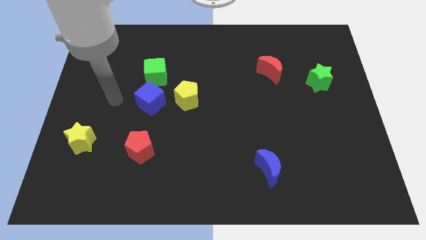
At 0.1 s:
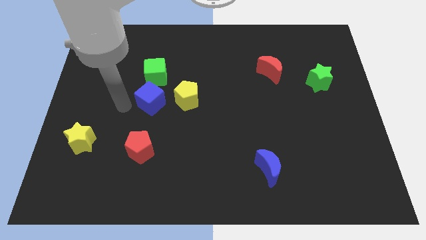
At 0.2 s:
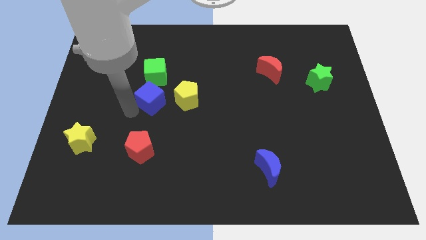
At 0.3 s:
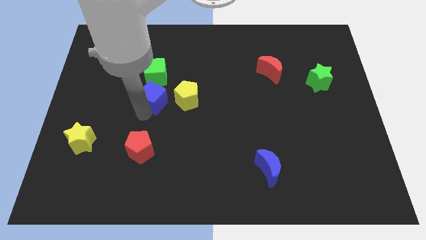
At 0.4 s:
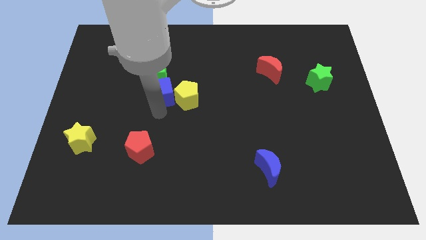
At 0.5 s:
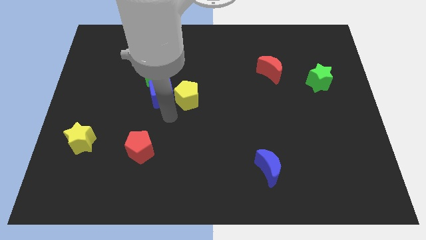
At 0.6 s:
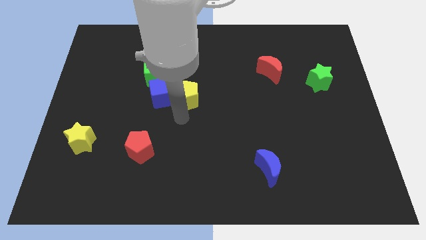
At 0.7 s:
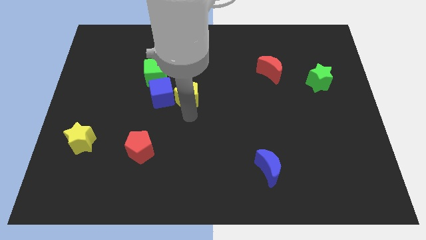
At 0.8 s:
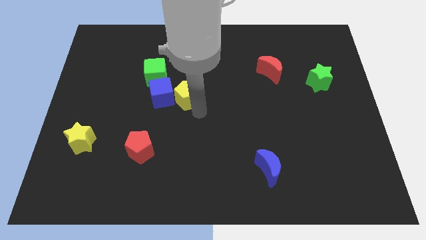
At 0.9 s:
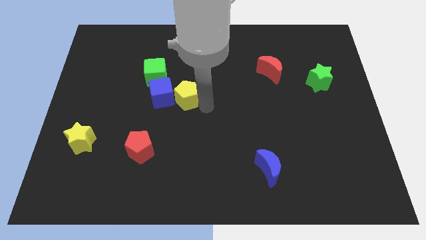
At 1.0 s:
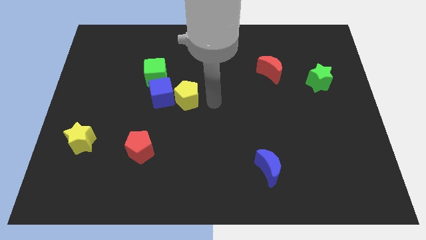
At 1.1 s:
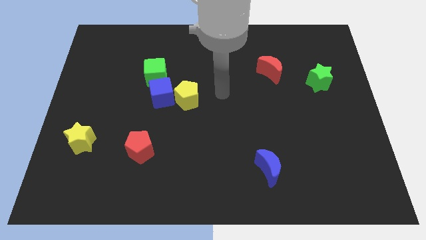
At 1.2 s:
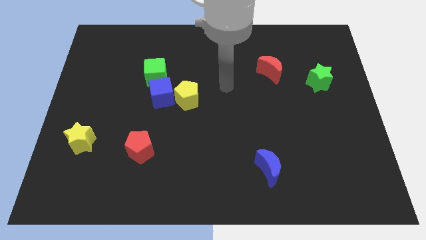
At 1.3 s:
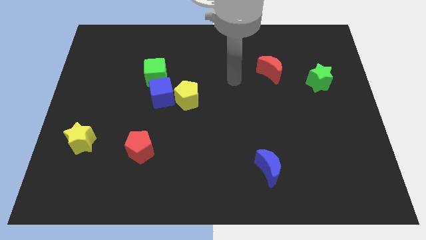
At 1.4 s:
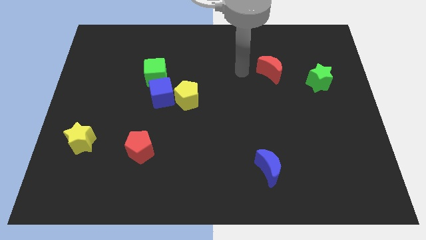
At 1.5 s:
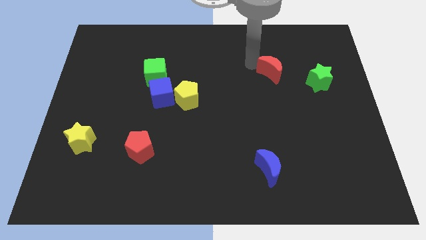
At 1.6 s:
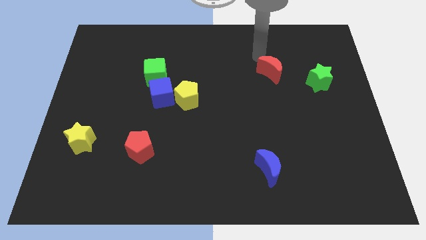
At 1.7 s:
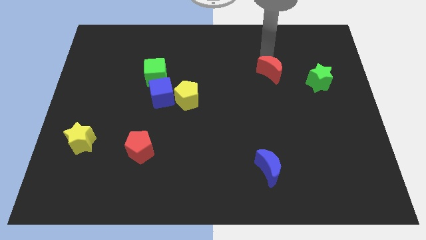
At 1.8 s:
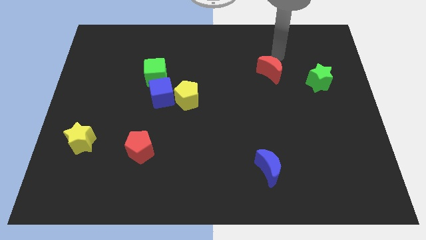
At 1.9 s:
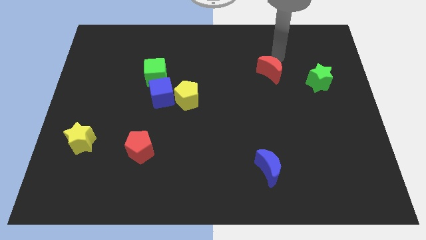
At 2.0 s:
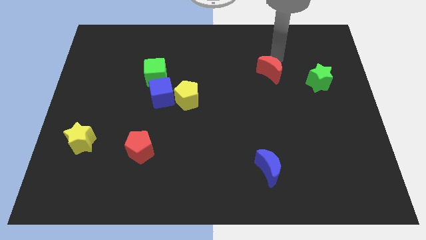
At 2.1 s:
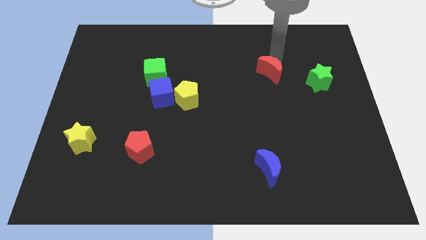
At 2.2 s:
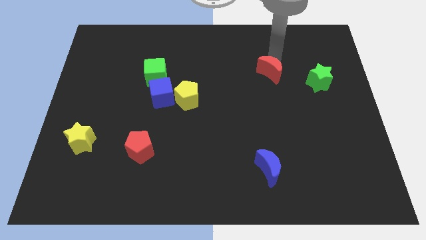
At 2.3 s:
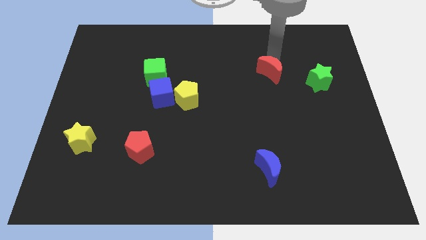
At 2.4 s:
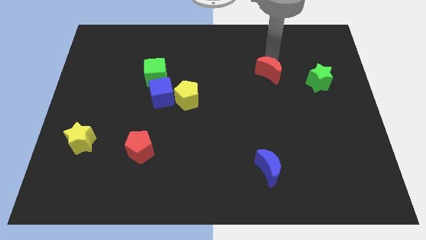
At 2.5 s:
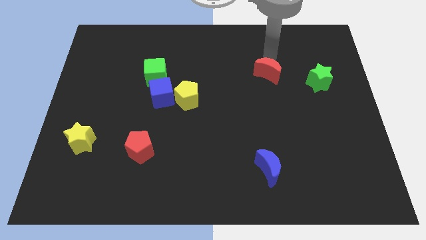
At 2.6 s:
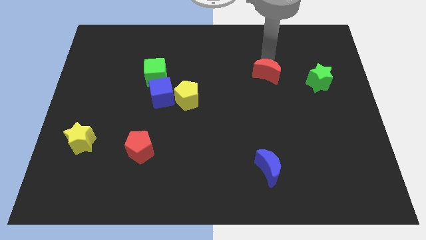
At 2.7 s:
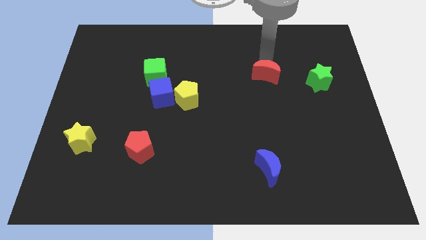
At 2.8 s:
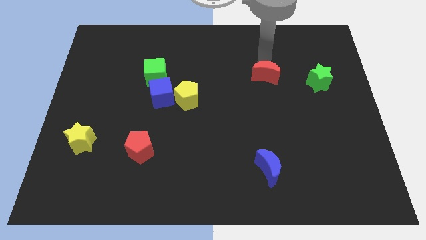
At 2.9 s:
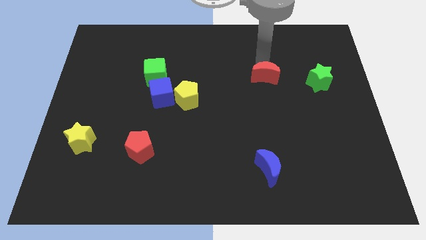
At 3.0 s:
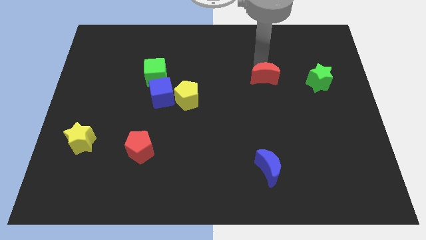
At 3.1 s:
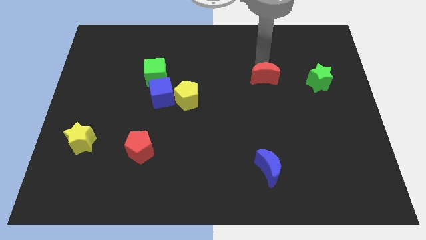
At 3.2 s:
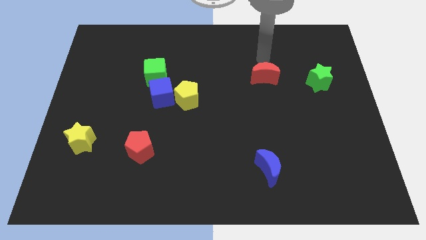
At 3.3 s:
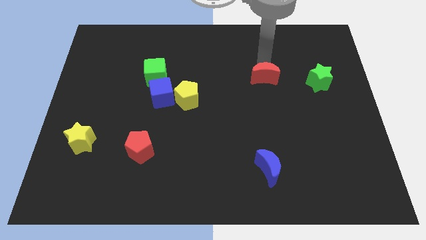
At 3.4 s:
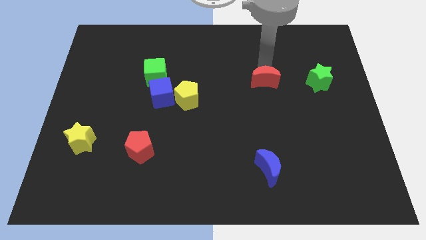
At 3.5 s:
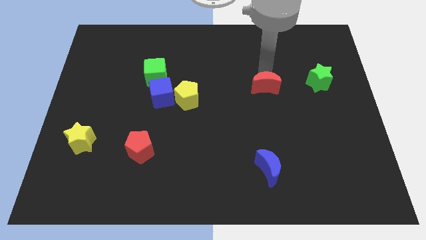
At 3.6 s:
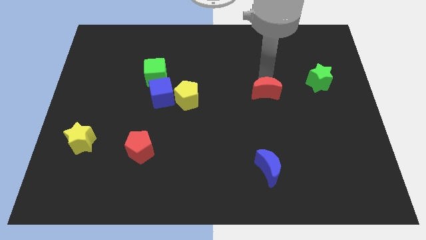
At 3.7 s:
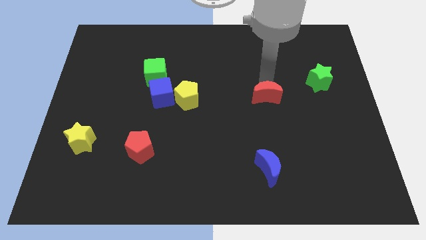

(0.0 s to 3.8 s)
slide the red moon a little bit down

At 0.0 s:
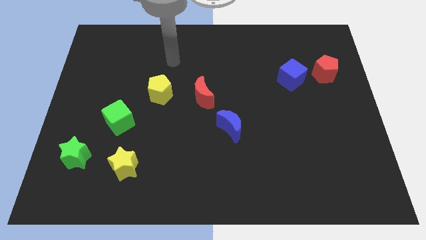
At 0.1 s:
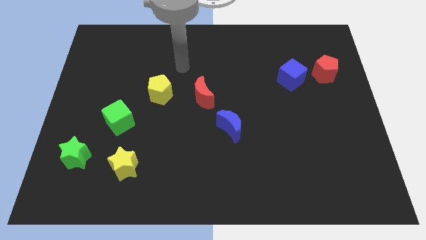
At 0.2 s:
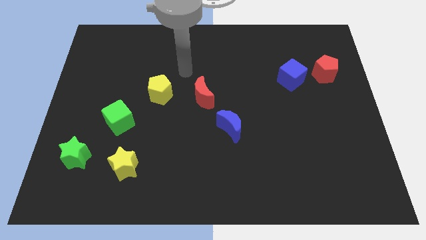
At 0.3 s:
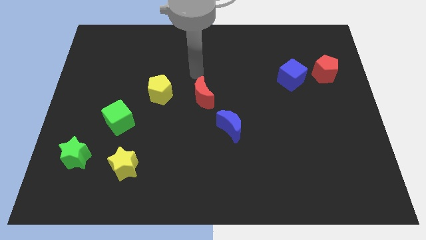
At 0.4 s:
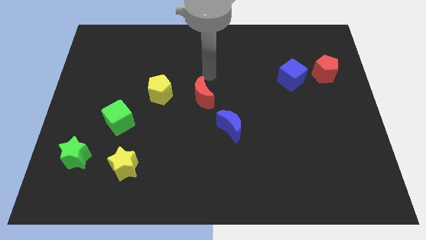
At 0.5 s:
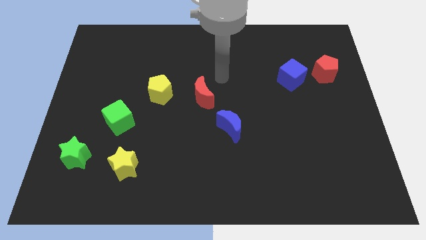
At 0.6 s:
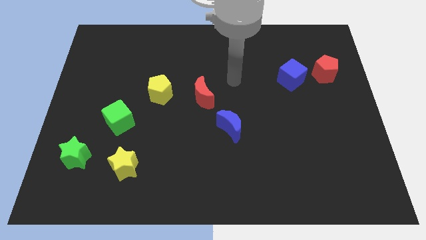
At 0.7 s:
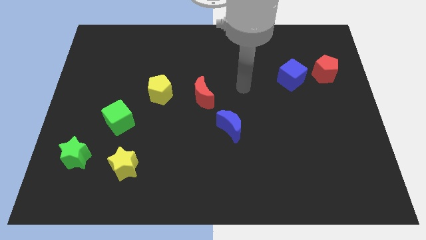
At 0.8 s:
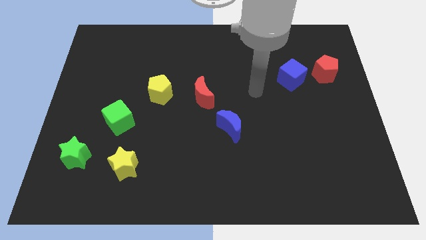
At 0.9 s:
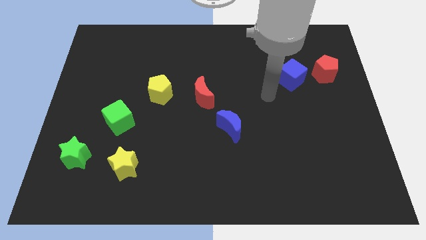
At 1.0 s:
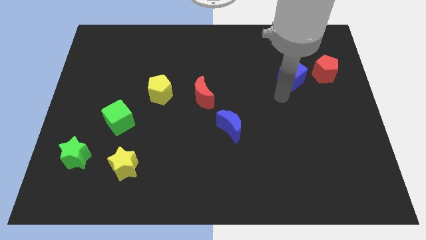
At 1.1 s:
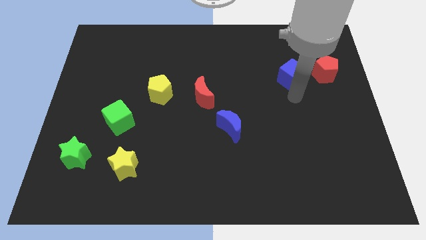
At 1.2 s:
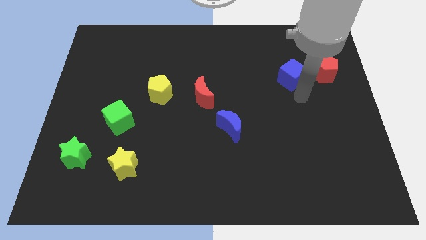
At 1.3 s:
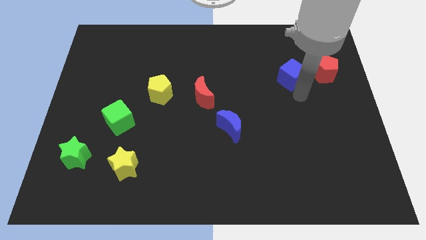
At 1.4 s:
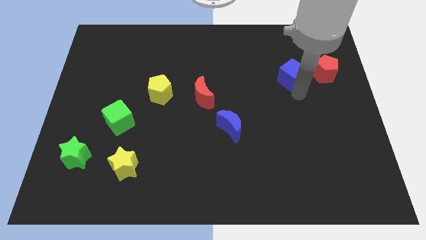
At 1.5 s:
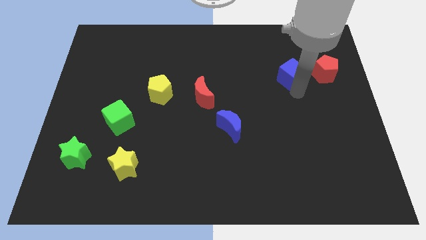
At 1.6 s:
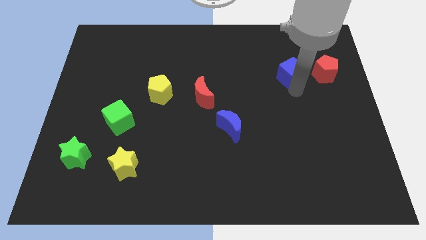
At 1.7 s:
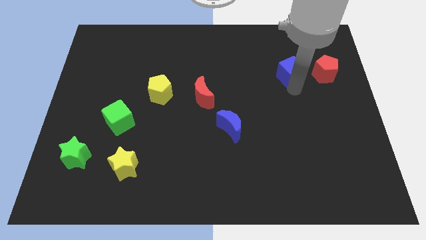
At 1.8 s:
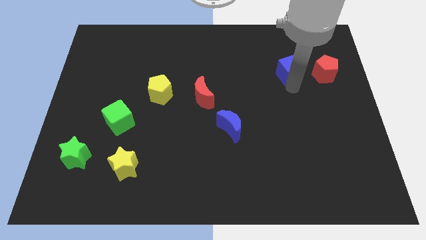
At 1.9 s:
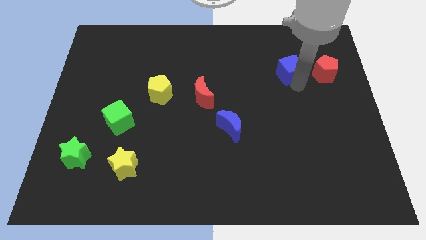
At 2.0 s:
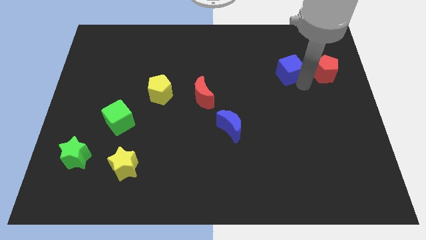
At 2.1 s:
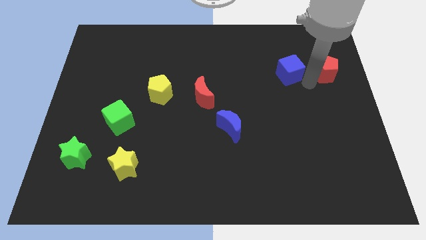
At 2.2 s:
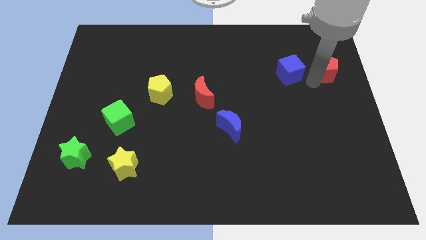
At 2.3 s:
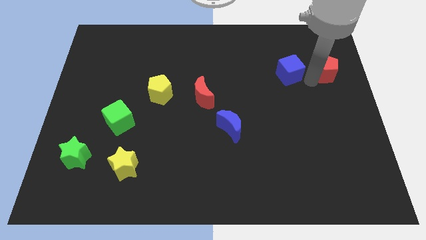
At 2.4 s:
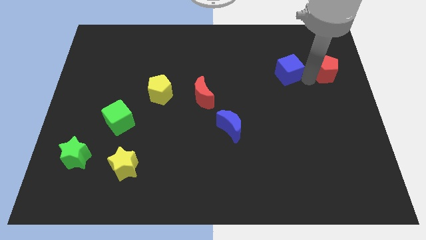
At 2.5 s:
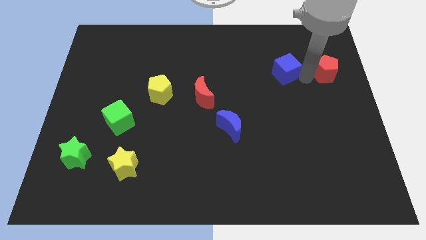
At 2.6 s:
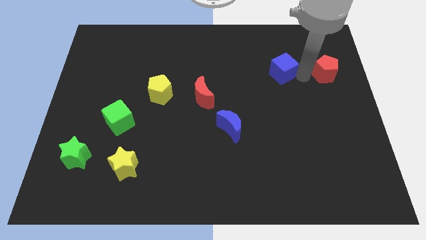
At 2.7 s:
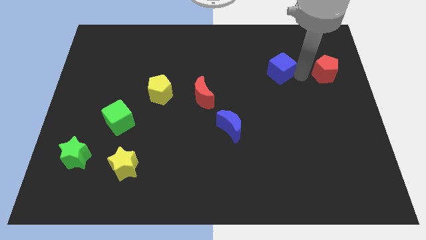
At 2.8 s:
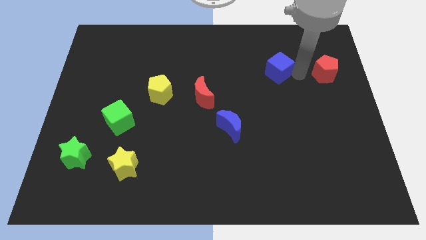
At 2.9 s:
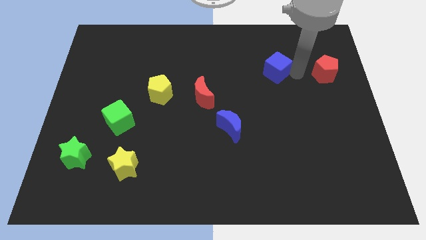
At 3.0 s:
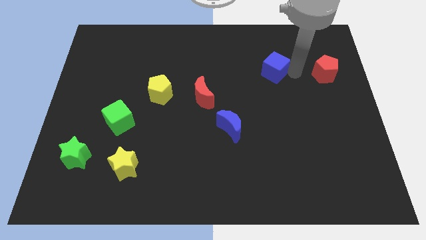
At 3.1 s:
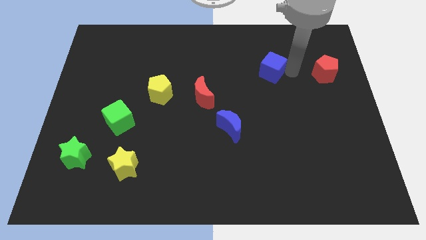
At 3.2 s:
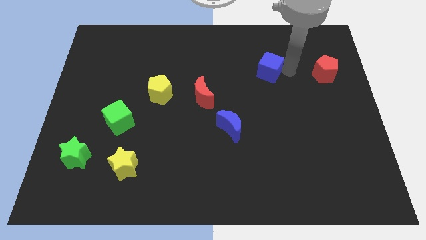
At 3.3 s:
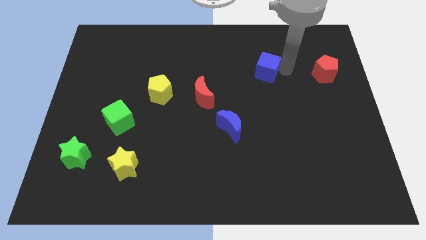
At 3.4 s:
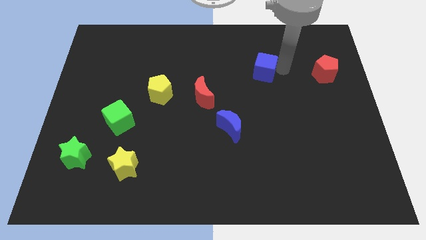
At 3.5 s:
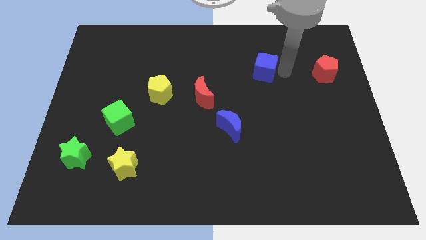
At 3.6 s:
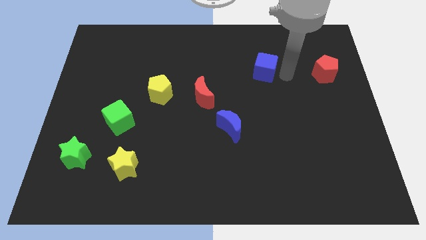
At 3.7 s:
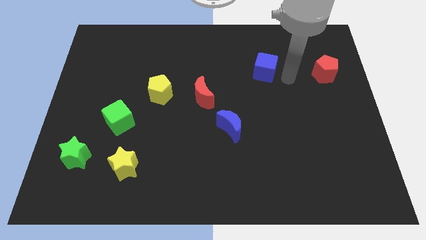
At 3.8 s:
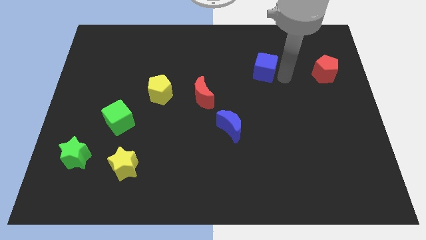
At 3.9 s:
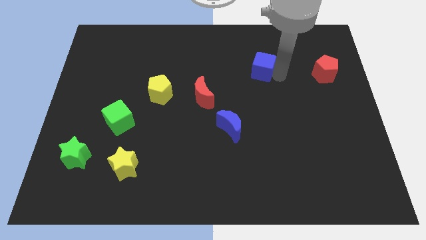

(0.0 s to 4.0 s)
slightly push the blue cube left

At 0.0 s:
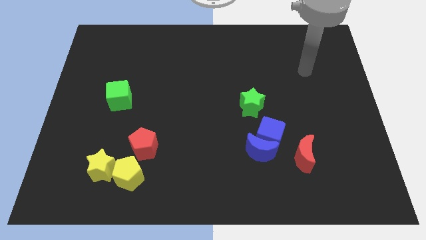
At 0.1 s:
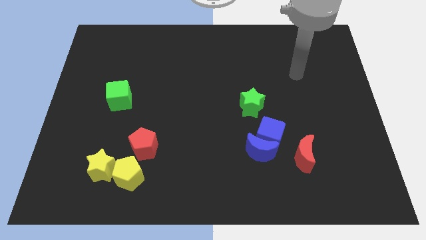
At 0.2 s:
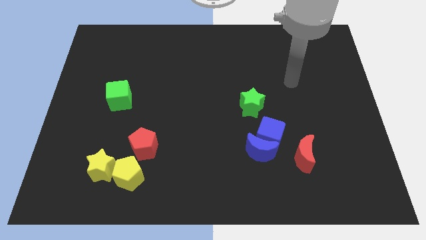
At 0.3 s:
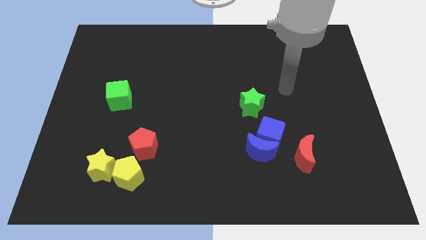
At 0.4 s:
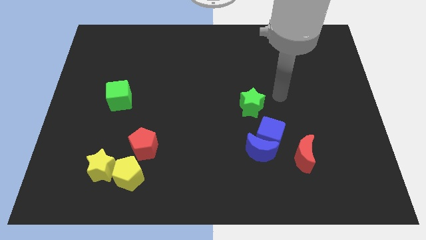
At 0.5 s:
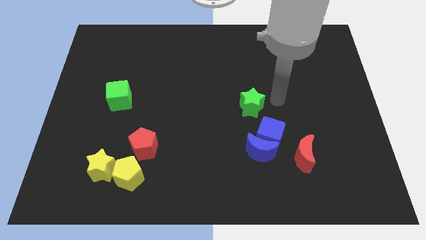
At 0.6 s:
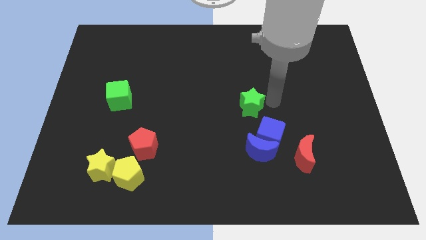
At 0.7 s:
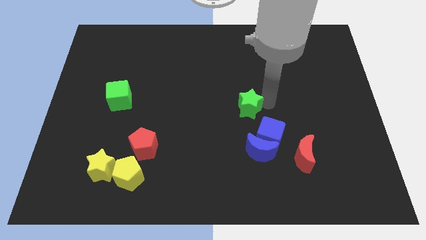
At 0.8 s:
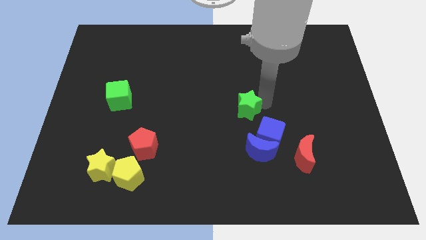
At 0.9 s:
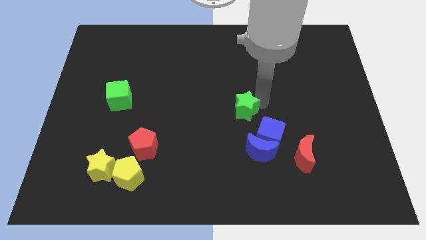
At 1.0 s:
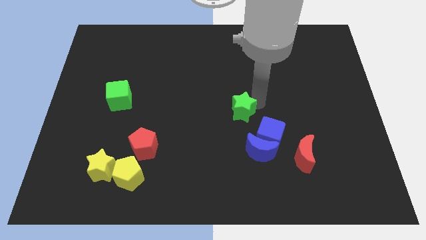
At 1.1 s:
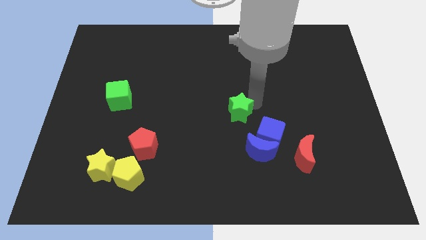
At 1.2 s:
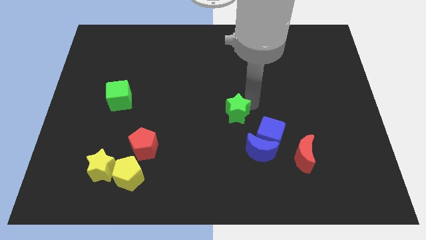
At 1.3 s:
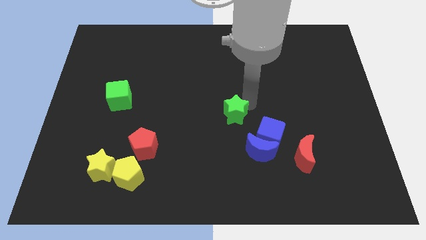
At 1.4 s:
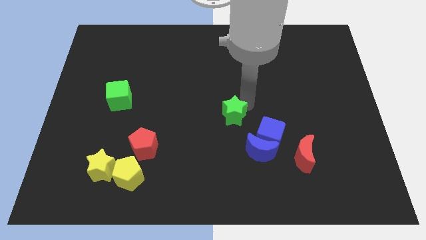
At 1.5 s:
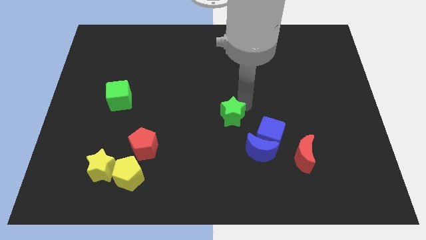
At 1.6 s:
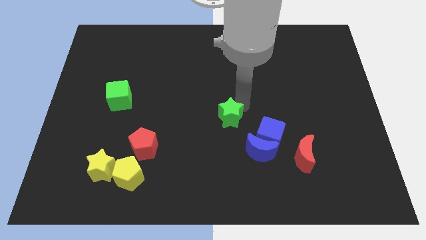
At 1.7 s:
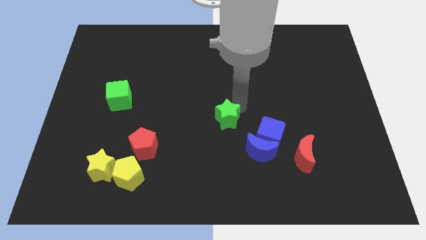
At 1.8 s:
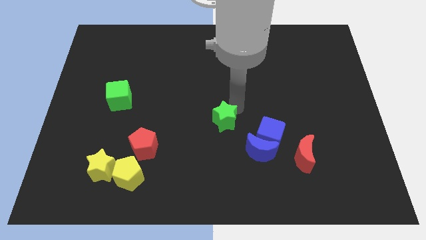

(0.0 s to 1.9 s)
move the green star slightly down and to the left
